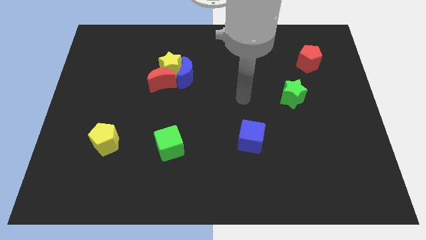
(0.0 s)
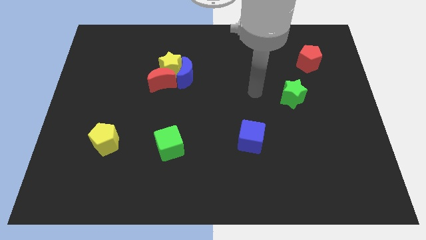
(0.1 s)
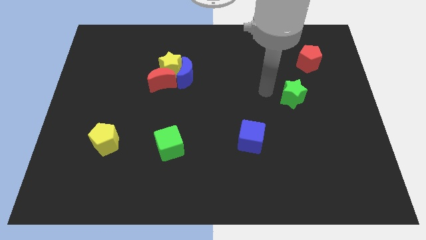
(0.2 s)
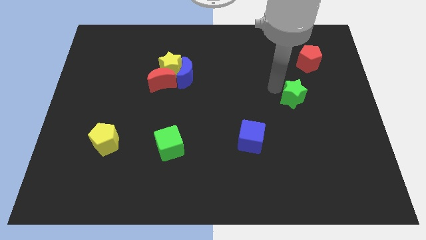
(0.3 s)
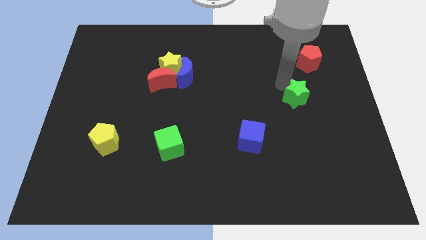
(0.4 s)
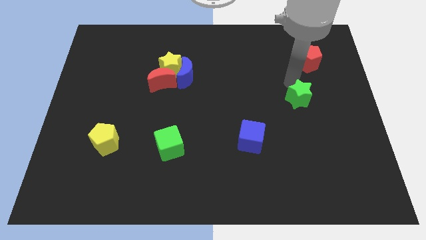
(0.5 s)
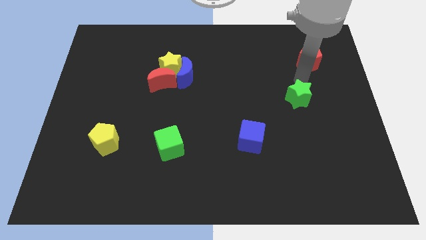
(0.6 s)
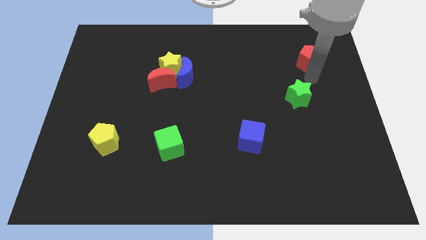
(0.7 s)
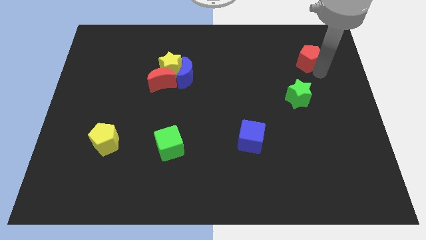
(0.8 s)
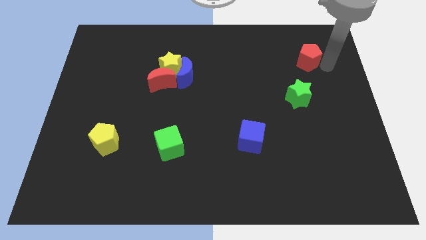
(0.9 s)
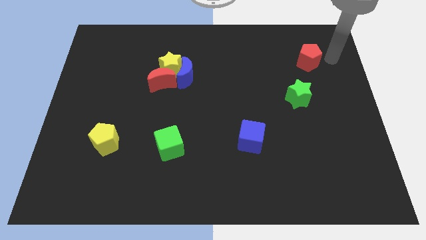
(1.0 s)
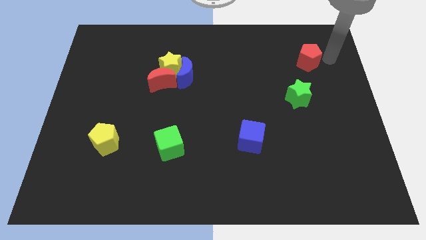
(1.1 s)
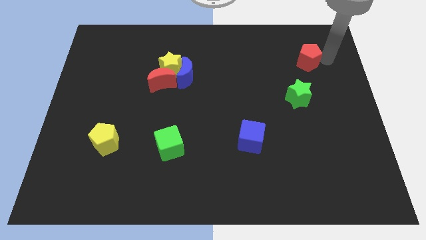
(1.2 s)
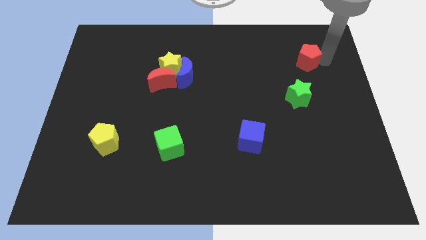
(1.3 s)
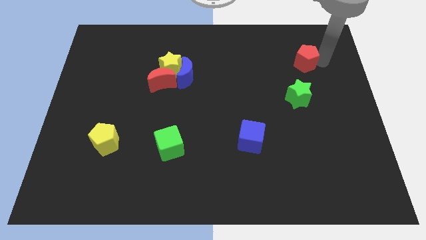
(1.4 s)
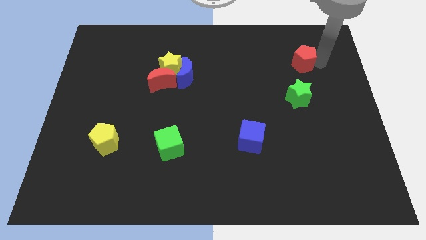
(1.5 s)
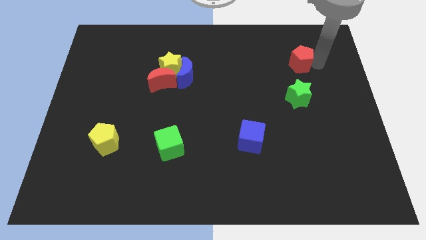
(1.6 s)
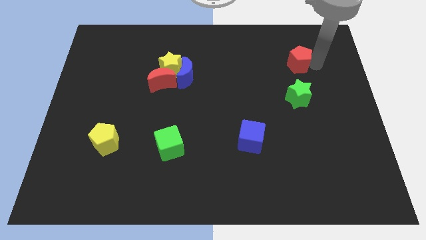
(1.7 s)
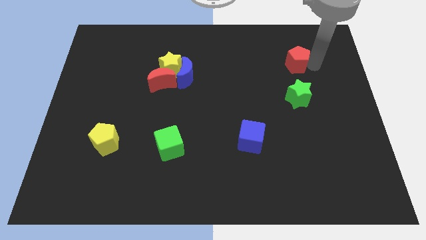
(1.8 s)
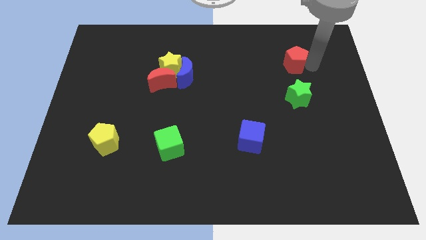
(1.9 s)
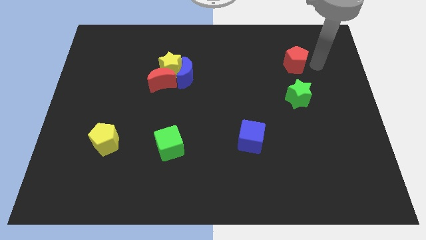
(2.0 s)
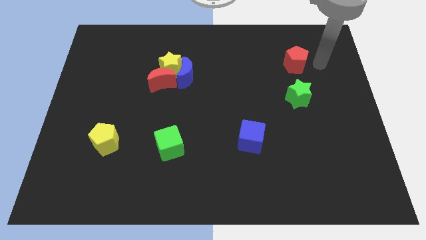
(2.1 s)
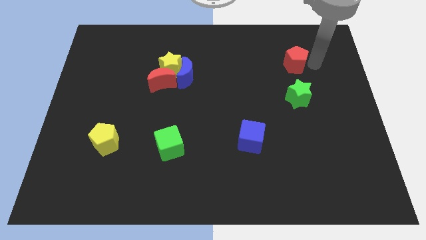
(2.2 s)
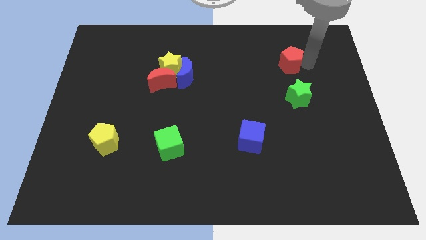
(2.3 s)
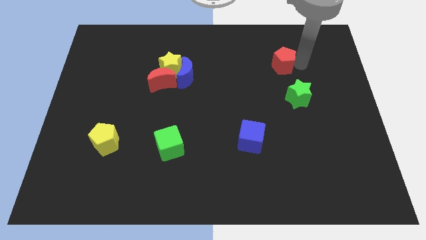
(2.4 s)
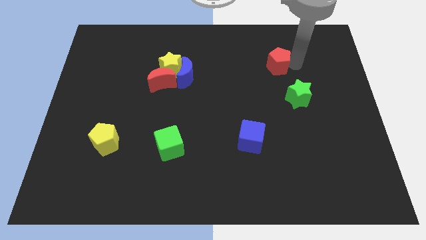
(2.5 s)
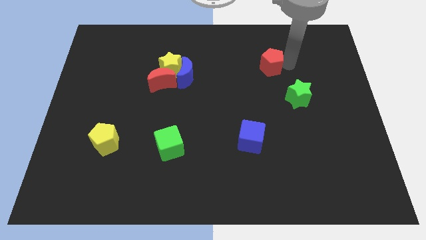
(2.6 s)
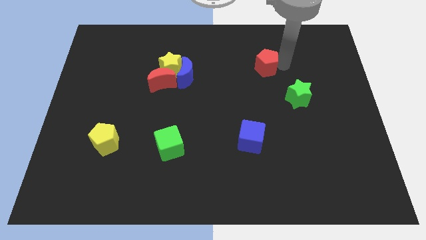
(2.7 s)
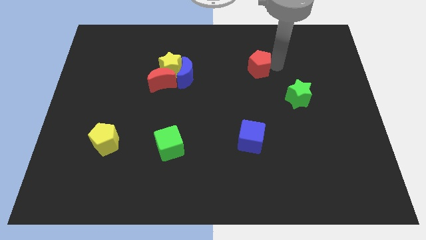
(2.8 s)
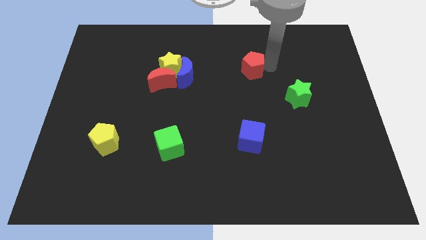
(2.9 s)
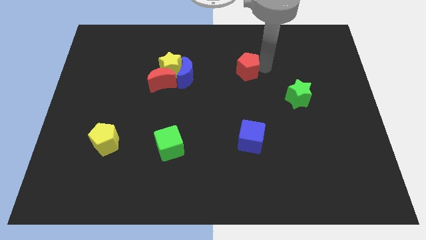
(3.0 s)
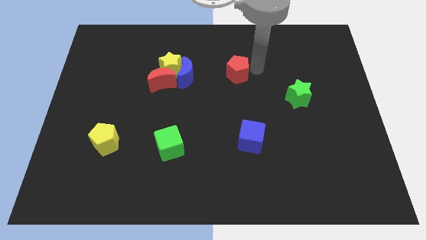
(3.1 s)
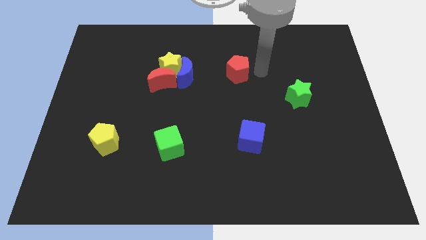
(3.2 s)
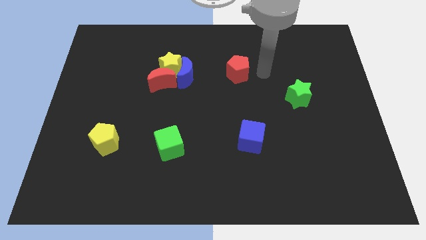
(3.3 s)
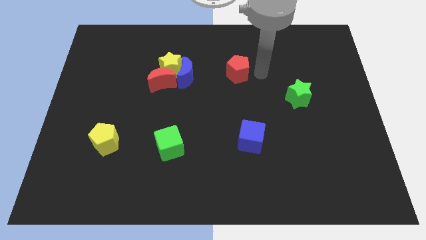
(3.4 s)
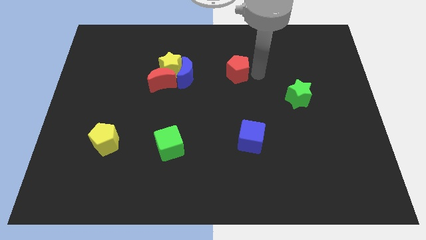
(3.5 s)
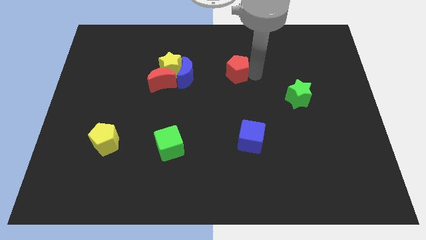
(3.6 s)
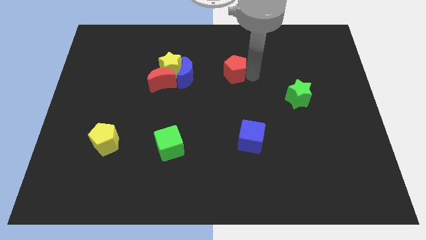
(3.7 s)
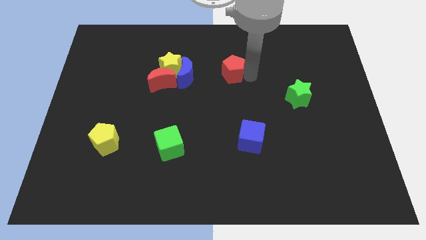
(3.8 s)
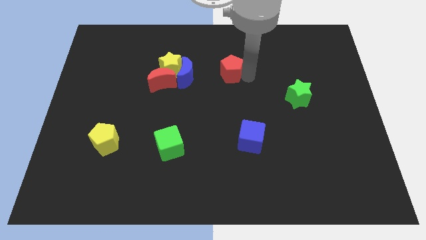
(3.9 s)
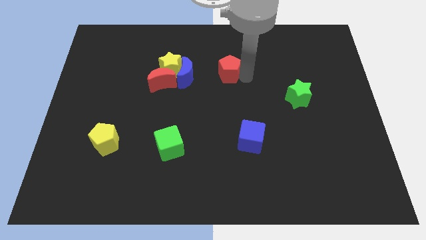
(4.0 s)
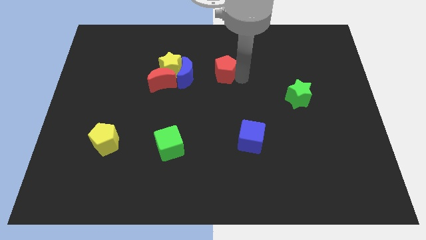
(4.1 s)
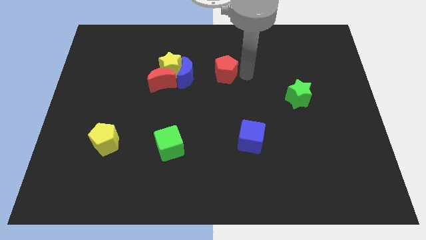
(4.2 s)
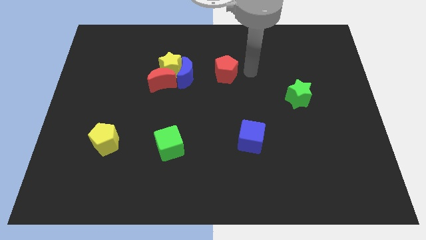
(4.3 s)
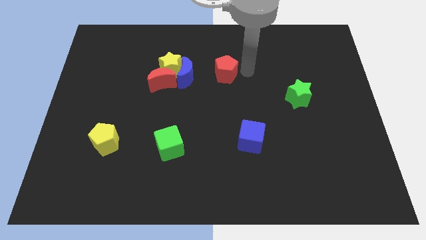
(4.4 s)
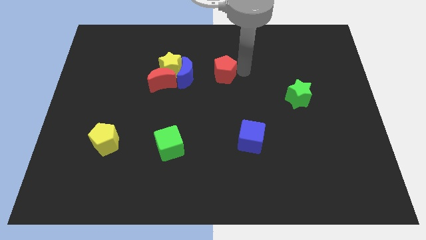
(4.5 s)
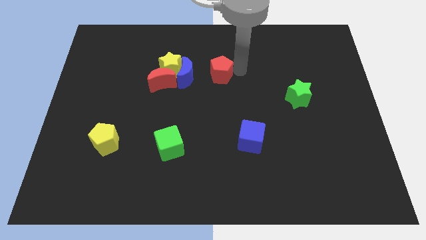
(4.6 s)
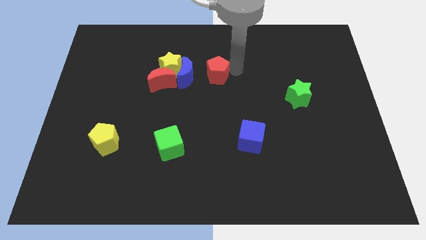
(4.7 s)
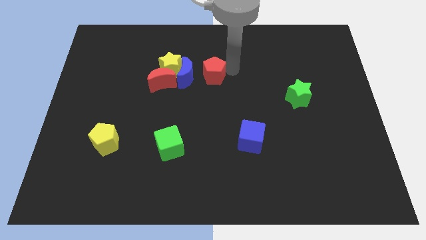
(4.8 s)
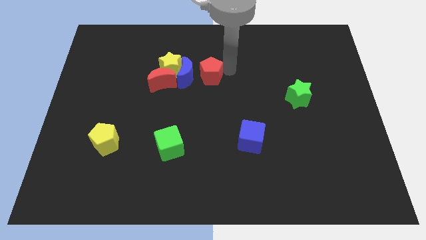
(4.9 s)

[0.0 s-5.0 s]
move the red pentagon to the blue moon

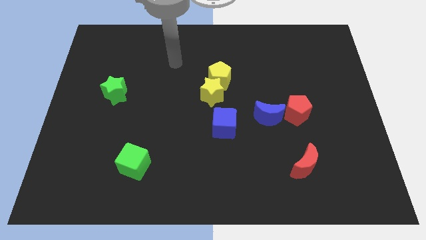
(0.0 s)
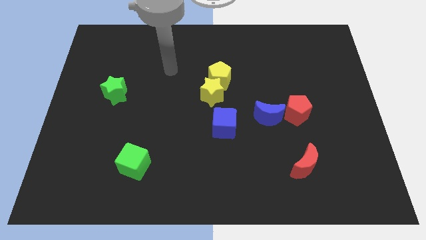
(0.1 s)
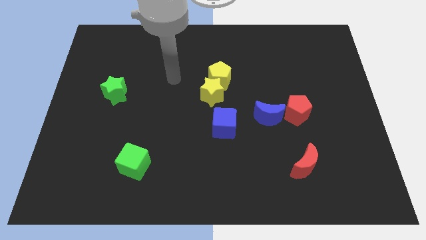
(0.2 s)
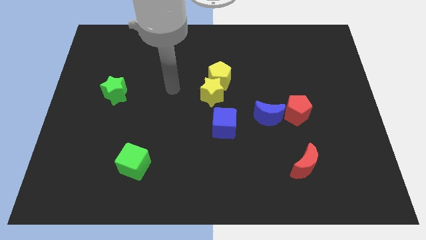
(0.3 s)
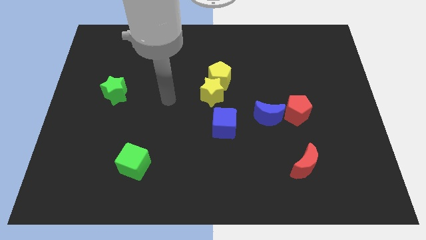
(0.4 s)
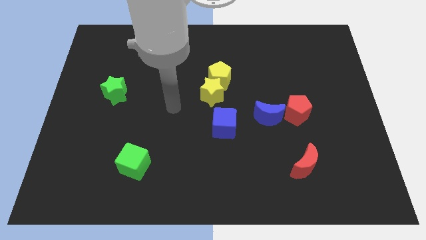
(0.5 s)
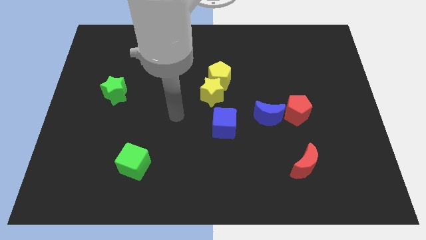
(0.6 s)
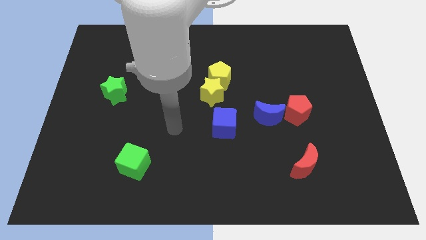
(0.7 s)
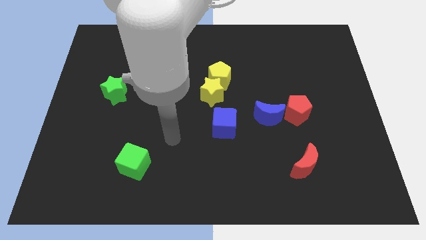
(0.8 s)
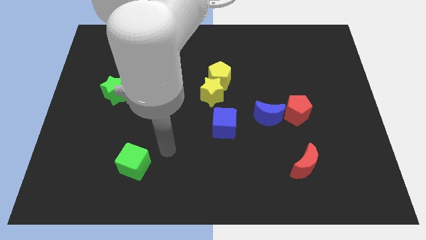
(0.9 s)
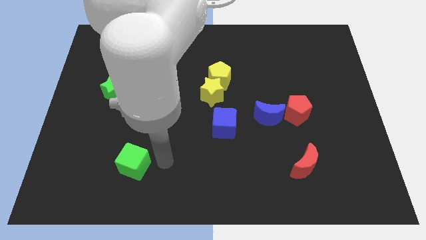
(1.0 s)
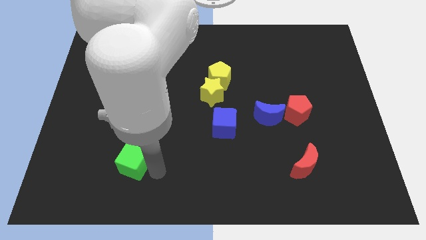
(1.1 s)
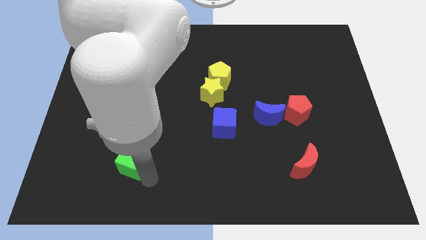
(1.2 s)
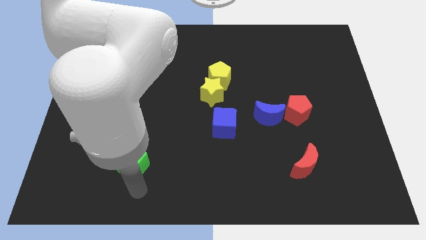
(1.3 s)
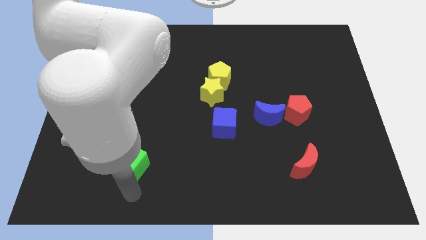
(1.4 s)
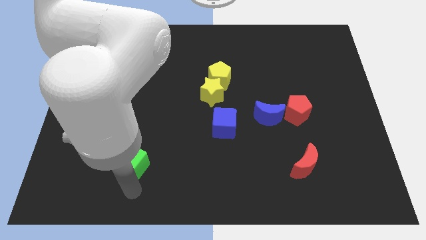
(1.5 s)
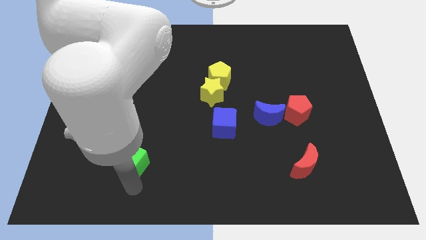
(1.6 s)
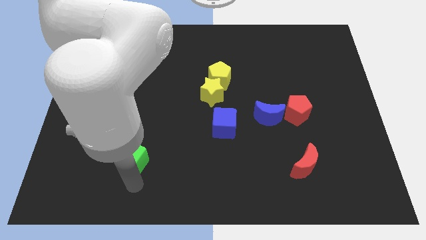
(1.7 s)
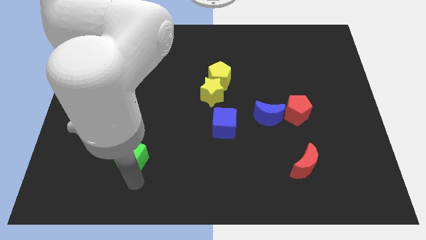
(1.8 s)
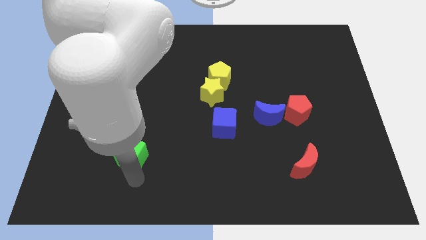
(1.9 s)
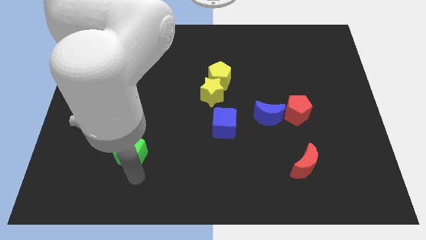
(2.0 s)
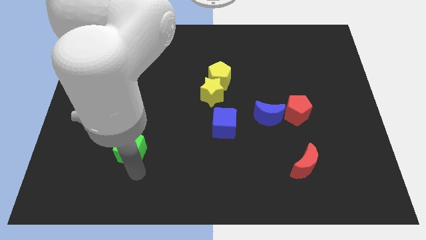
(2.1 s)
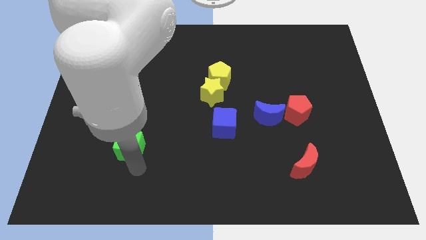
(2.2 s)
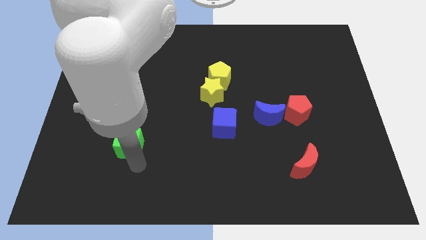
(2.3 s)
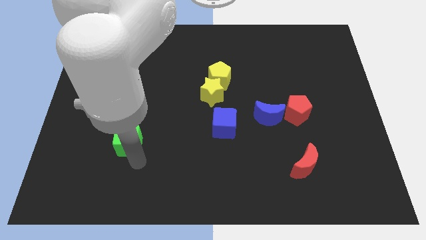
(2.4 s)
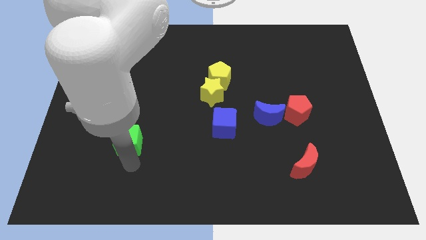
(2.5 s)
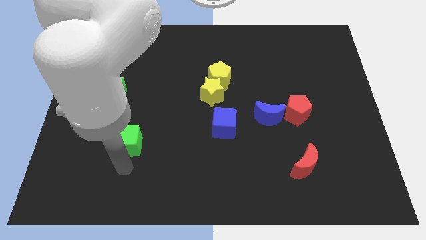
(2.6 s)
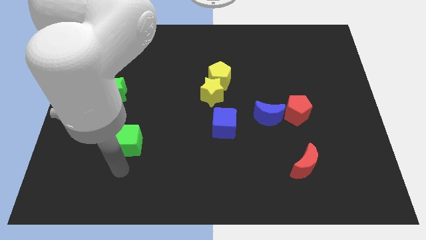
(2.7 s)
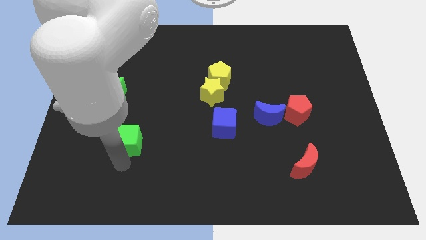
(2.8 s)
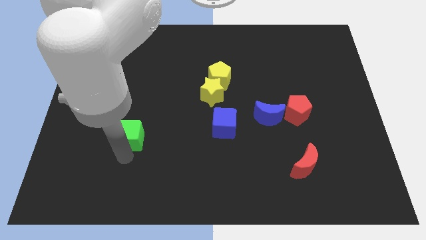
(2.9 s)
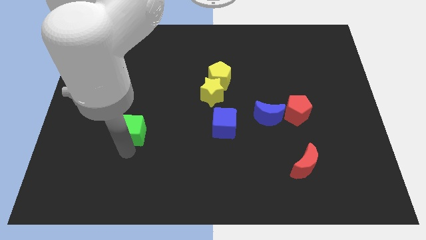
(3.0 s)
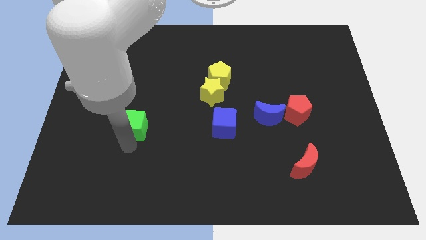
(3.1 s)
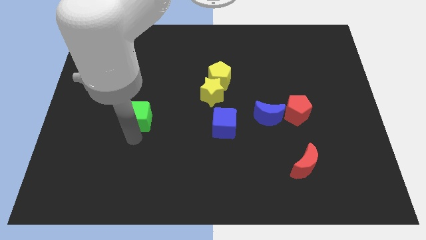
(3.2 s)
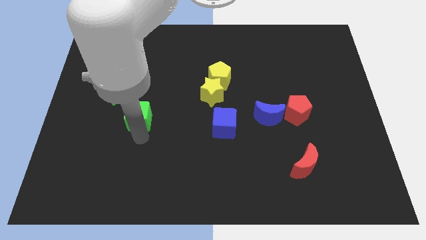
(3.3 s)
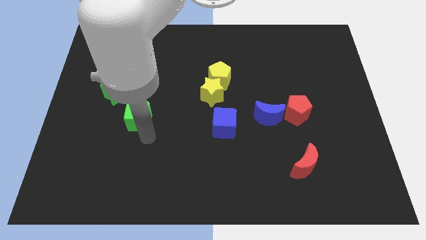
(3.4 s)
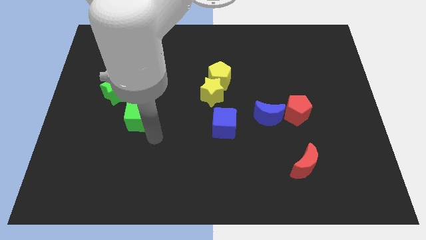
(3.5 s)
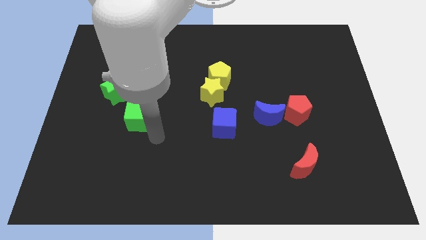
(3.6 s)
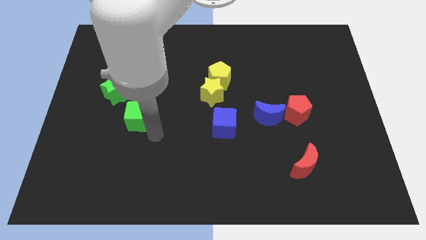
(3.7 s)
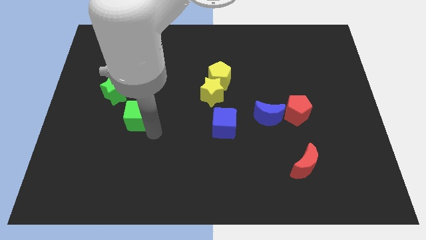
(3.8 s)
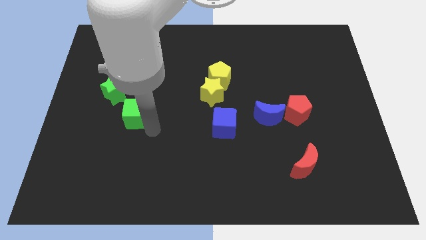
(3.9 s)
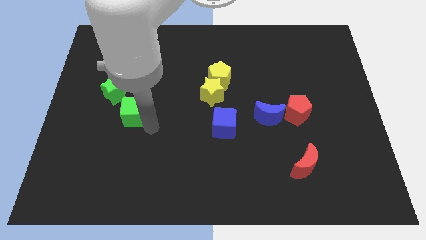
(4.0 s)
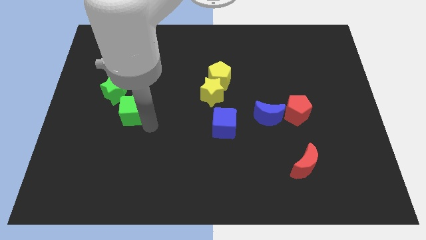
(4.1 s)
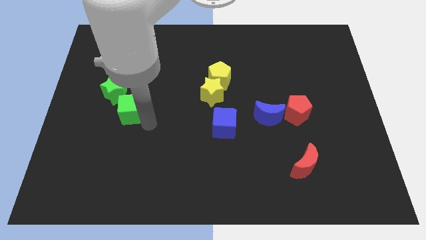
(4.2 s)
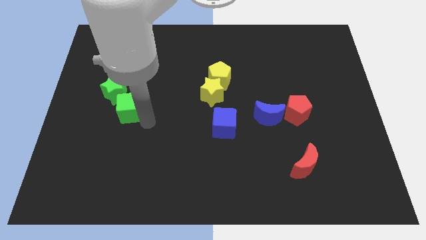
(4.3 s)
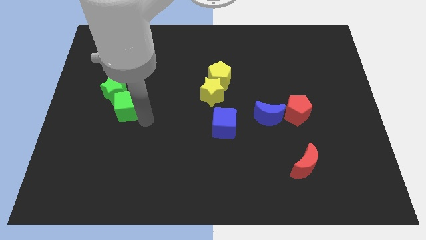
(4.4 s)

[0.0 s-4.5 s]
slide the green cube to the green star
